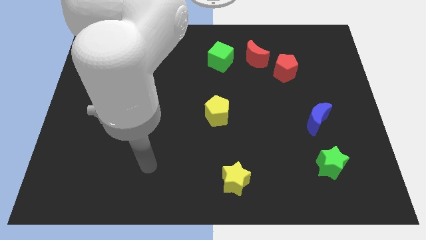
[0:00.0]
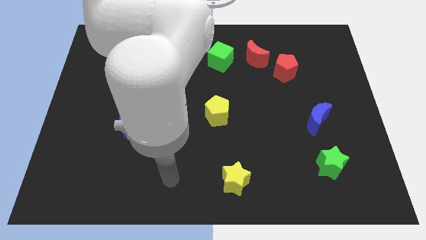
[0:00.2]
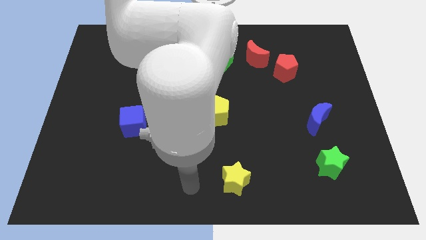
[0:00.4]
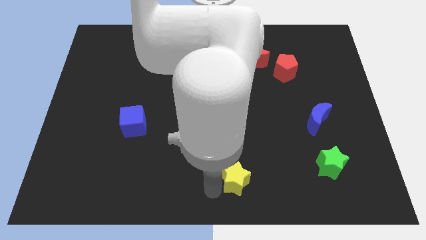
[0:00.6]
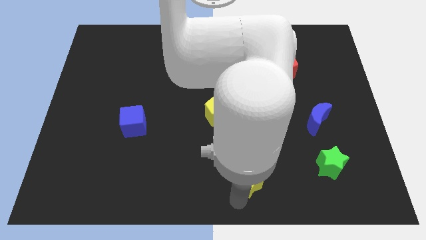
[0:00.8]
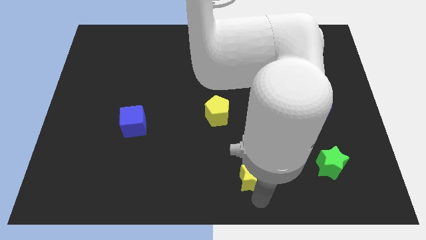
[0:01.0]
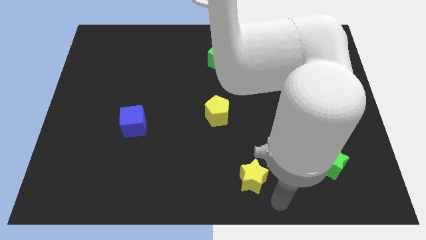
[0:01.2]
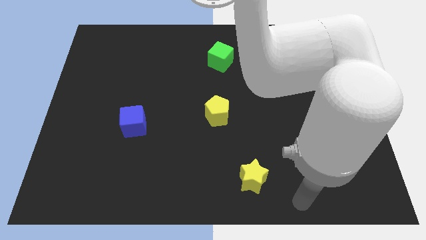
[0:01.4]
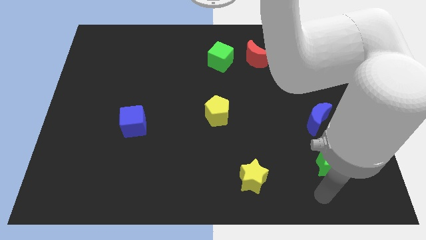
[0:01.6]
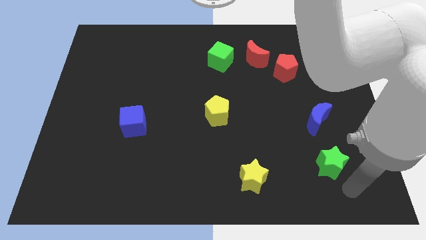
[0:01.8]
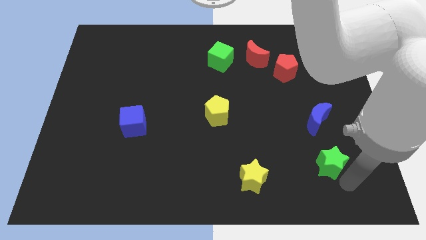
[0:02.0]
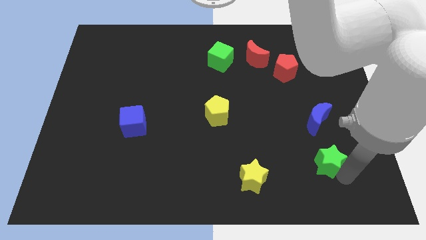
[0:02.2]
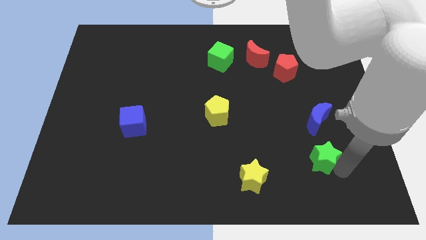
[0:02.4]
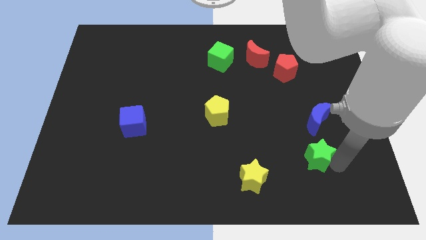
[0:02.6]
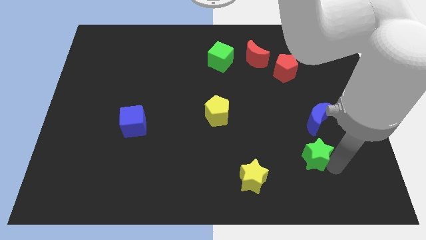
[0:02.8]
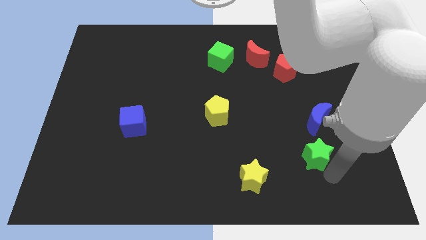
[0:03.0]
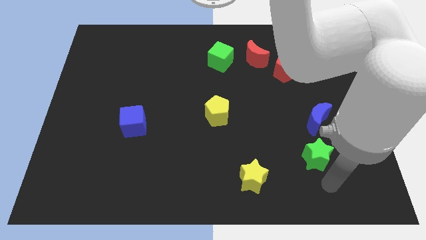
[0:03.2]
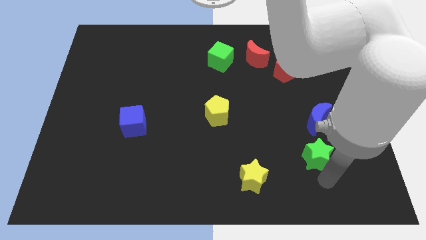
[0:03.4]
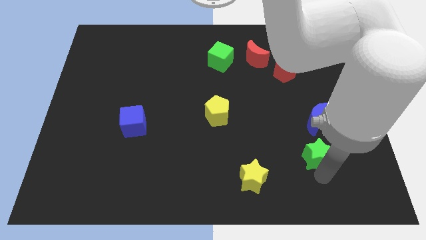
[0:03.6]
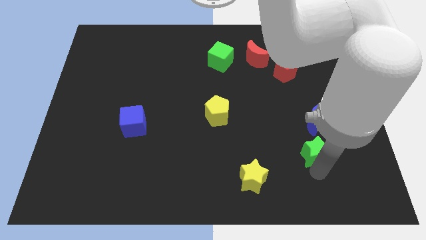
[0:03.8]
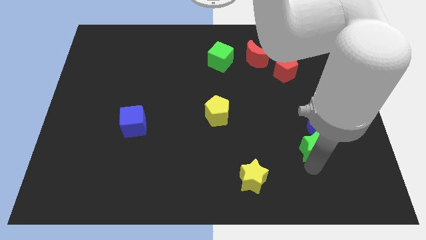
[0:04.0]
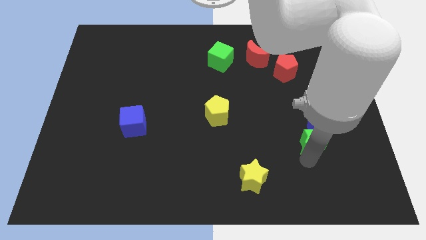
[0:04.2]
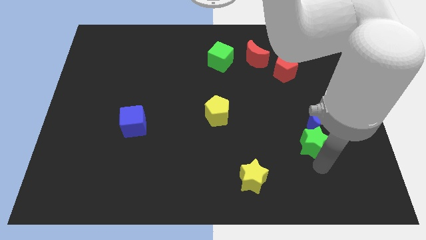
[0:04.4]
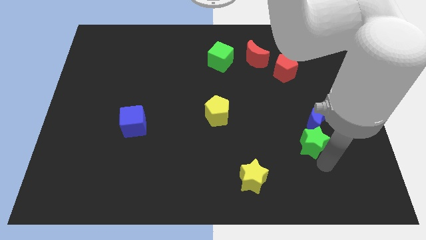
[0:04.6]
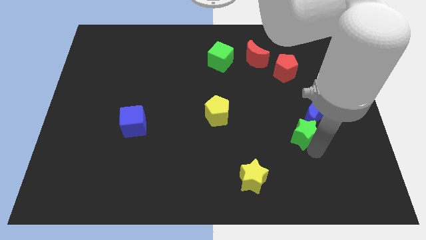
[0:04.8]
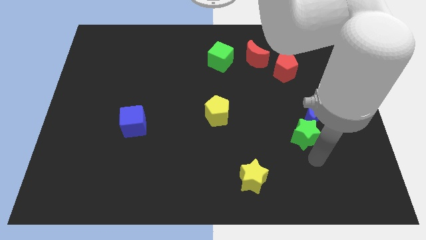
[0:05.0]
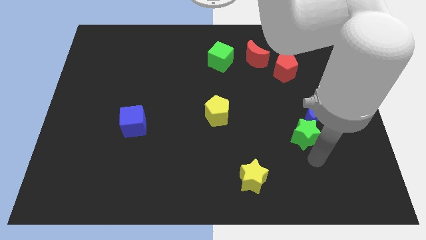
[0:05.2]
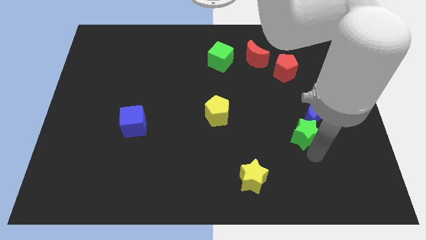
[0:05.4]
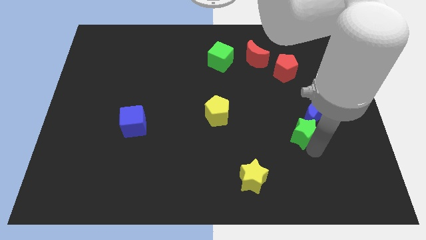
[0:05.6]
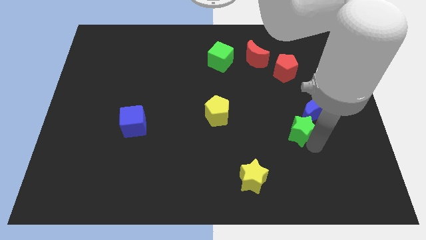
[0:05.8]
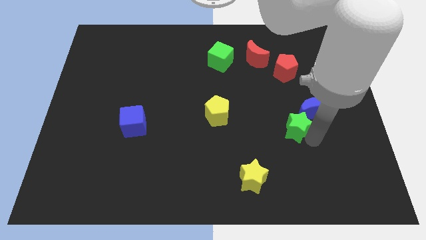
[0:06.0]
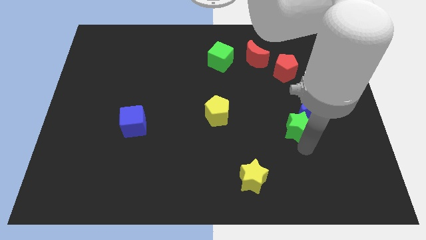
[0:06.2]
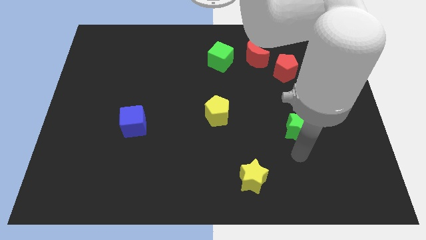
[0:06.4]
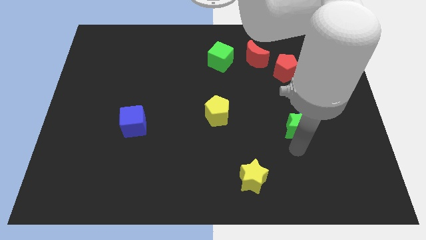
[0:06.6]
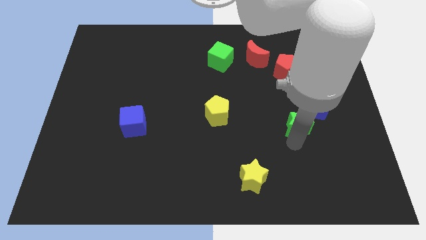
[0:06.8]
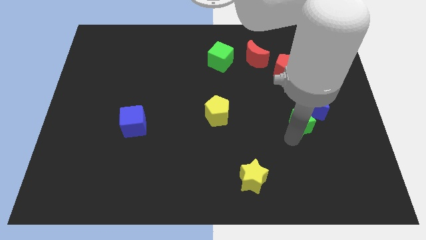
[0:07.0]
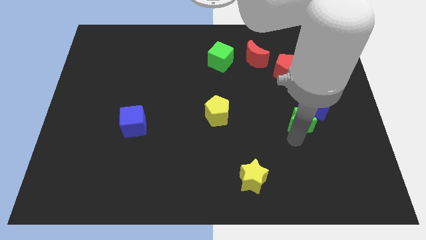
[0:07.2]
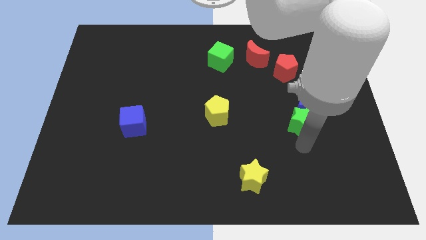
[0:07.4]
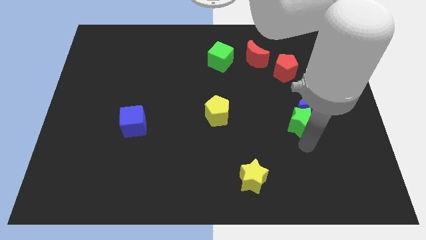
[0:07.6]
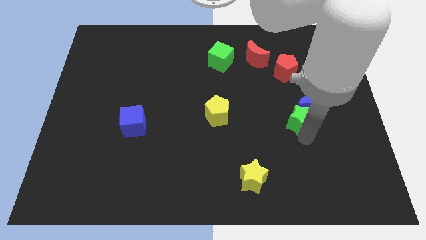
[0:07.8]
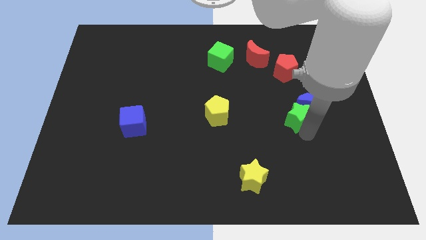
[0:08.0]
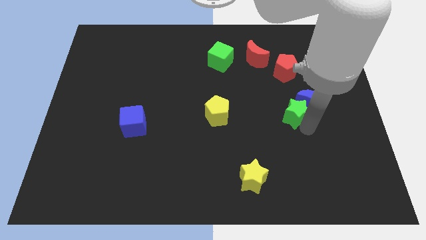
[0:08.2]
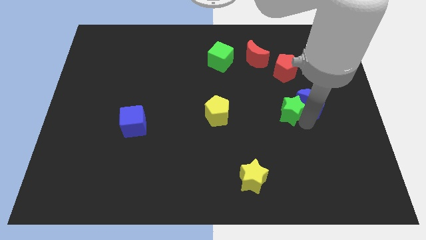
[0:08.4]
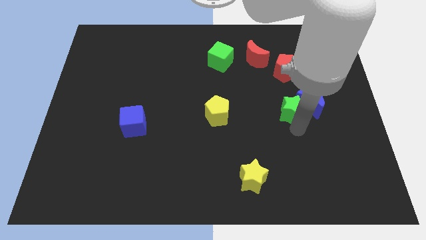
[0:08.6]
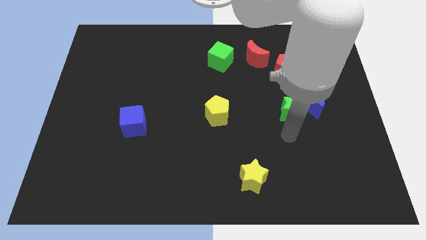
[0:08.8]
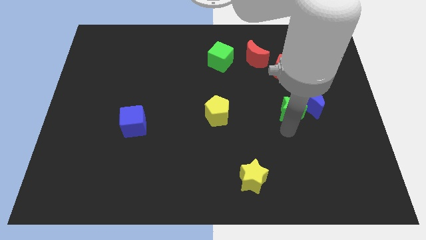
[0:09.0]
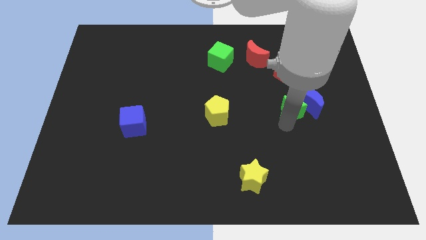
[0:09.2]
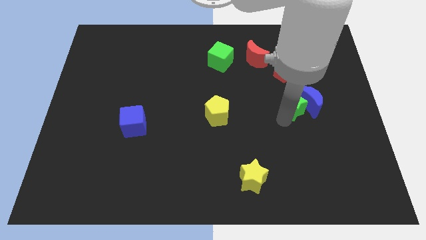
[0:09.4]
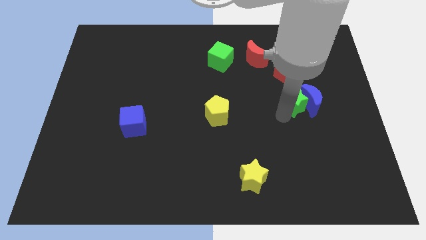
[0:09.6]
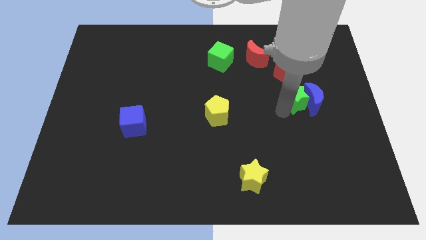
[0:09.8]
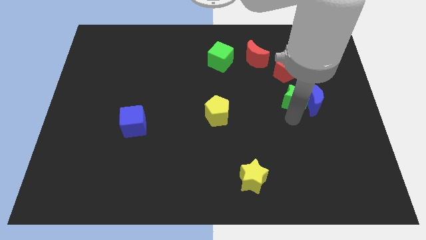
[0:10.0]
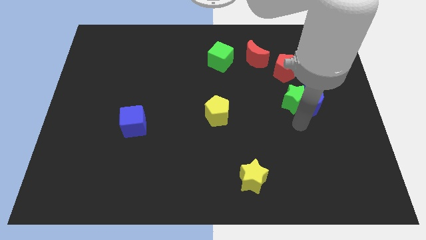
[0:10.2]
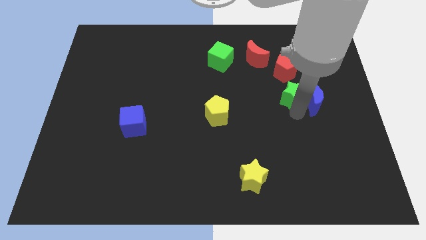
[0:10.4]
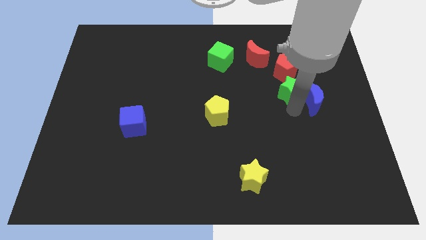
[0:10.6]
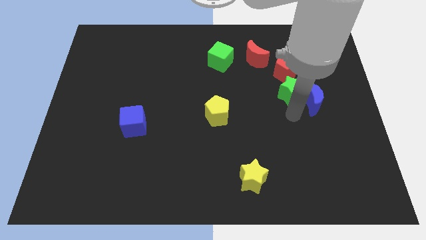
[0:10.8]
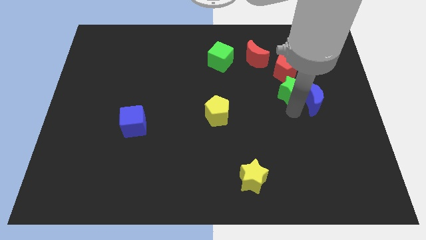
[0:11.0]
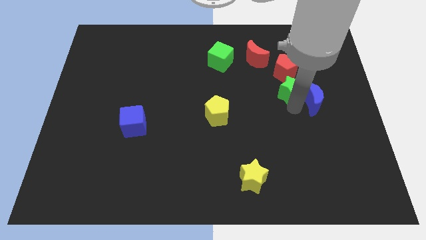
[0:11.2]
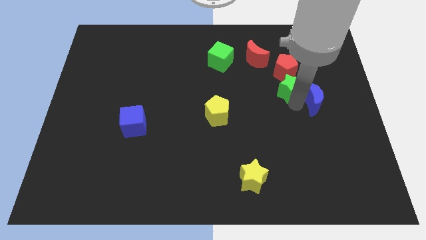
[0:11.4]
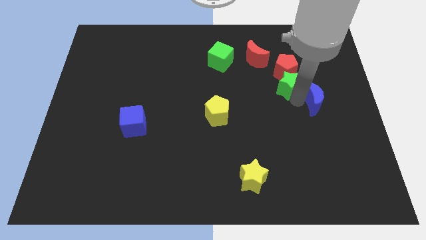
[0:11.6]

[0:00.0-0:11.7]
push the green star next to the red pentagon

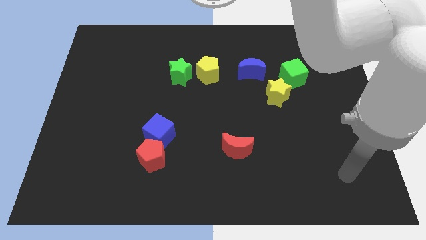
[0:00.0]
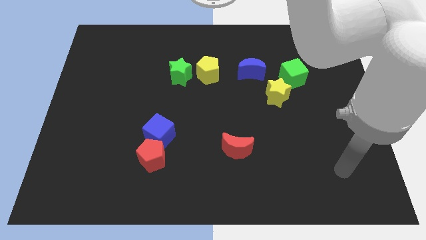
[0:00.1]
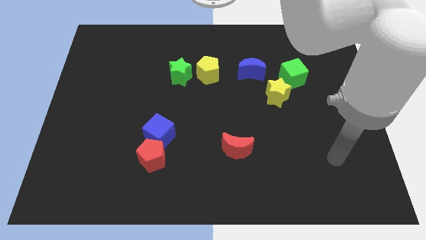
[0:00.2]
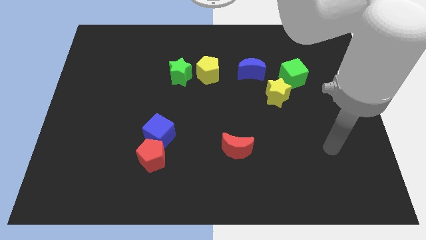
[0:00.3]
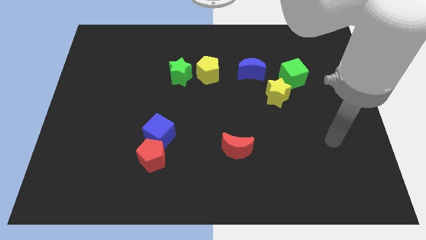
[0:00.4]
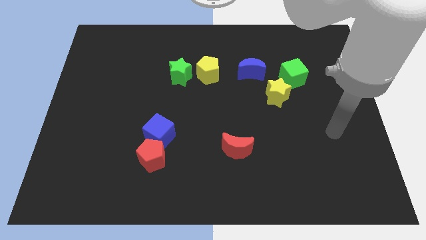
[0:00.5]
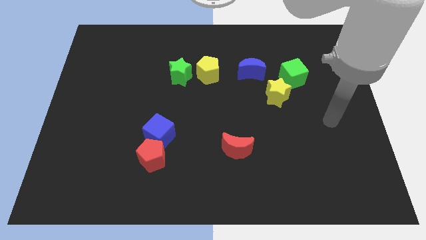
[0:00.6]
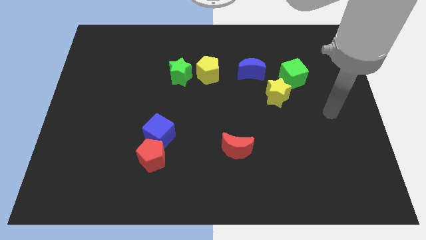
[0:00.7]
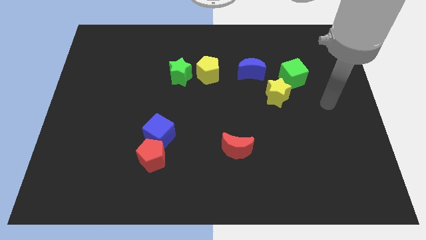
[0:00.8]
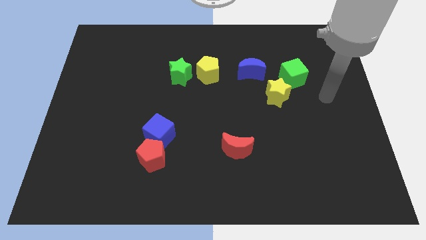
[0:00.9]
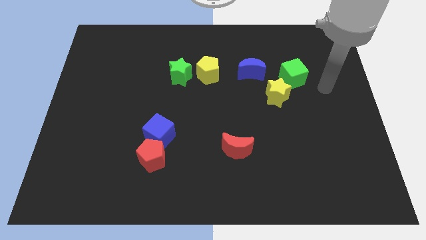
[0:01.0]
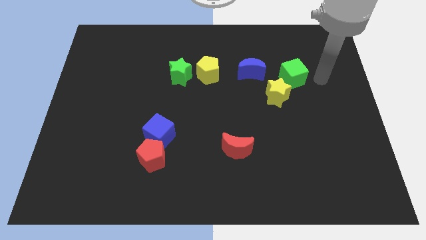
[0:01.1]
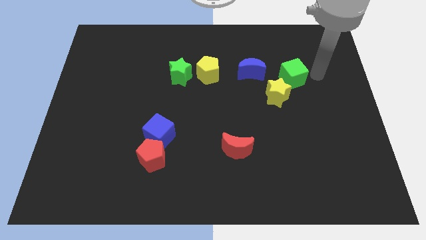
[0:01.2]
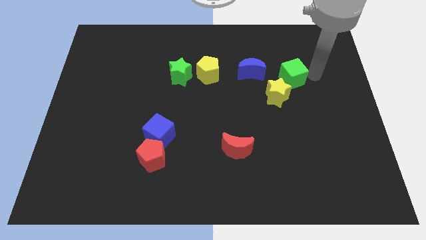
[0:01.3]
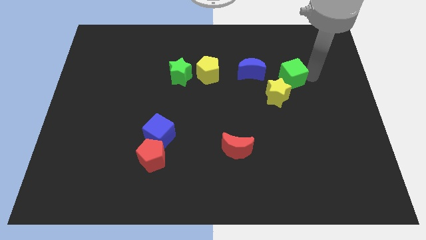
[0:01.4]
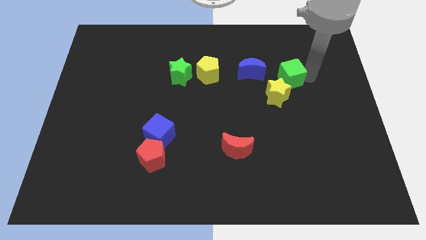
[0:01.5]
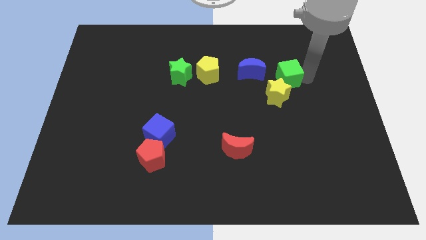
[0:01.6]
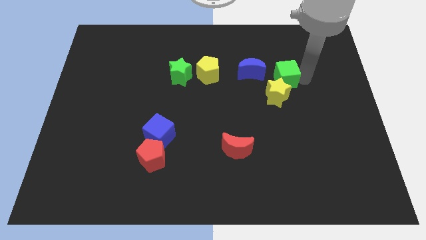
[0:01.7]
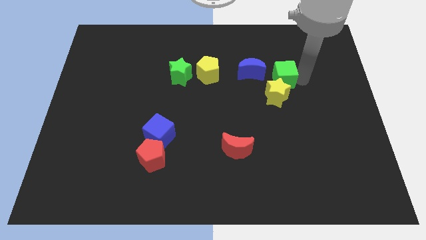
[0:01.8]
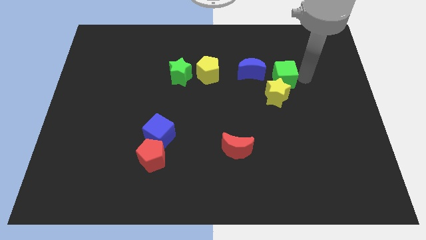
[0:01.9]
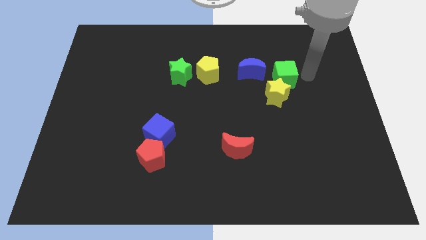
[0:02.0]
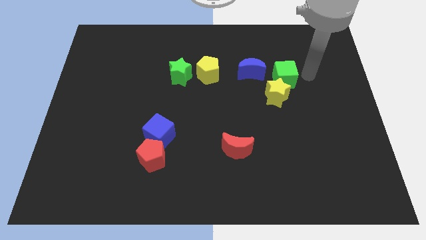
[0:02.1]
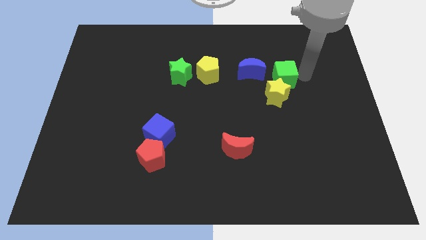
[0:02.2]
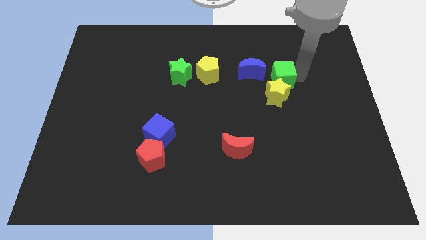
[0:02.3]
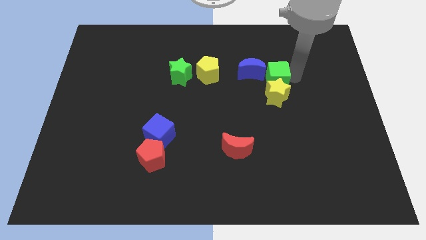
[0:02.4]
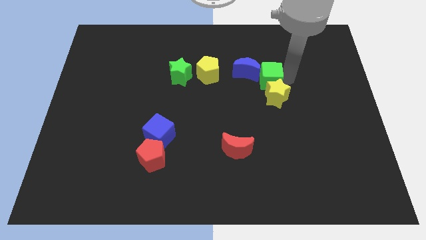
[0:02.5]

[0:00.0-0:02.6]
push the green cube to the blue moon
